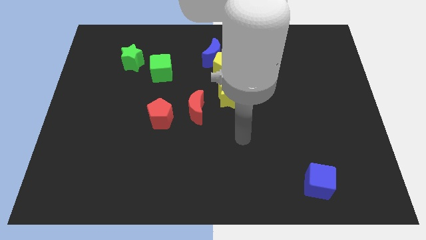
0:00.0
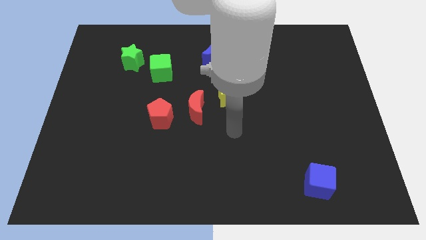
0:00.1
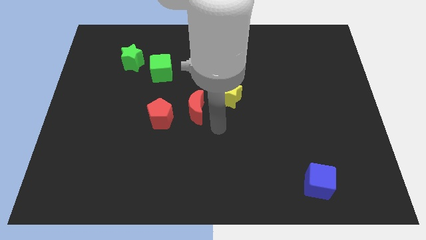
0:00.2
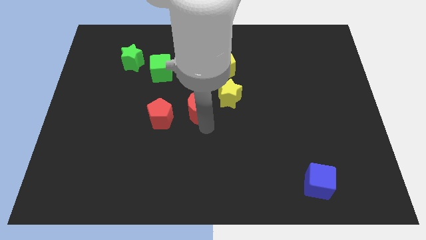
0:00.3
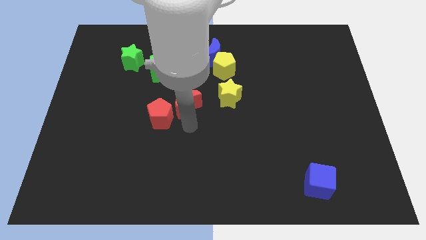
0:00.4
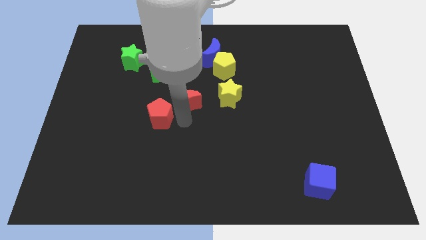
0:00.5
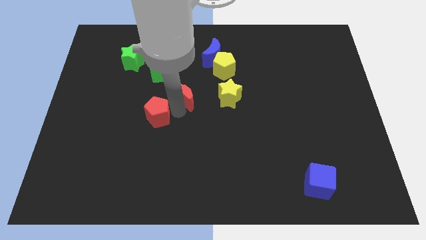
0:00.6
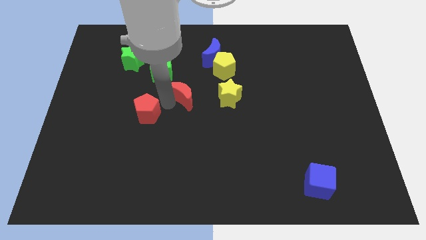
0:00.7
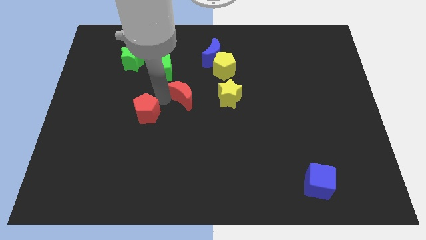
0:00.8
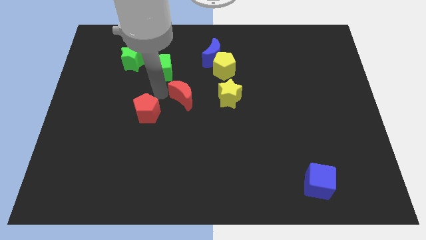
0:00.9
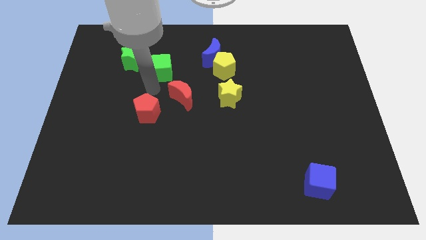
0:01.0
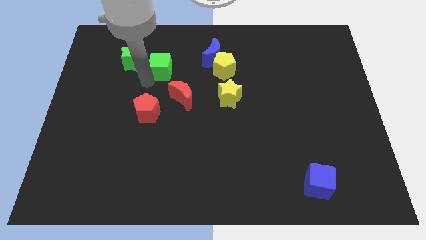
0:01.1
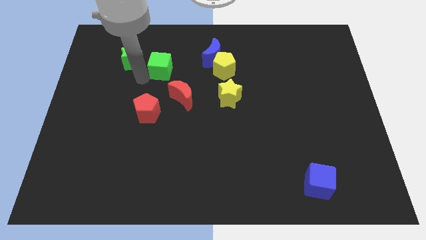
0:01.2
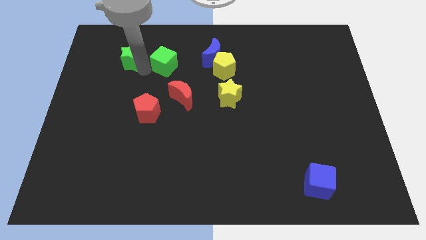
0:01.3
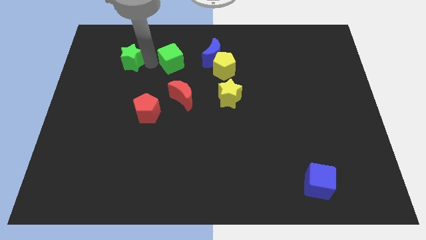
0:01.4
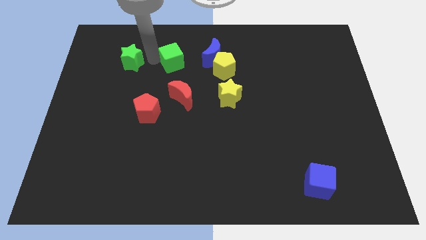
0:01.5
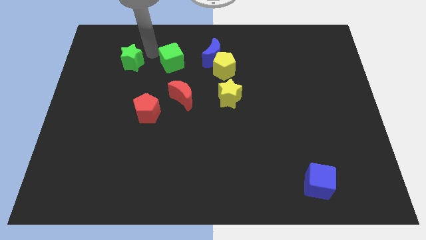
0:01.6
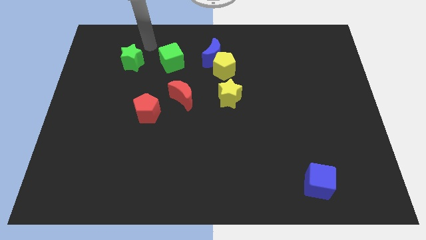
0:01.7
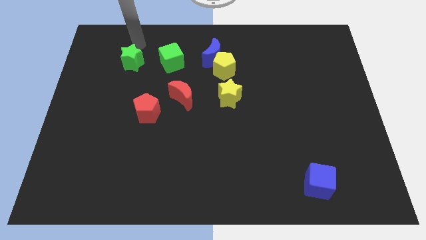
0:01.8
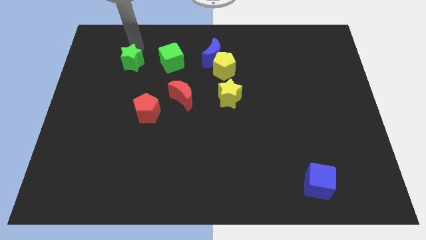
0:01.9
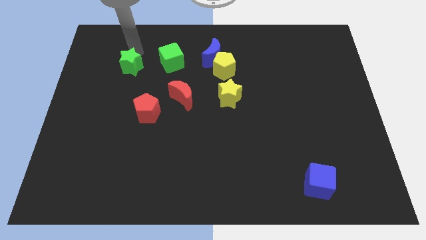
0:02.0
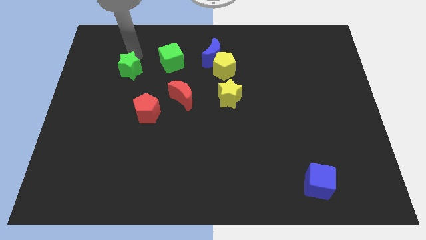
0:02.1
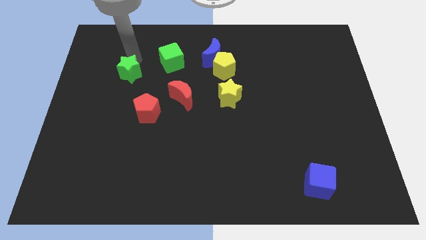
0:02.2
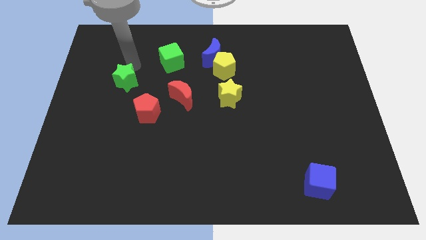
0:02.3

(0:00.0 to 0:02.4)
move the green star a little down

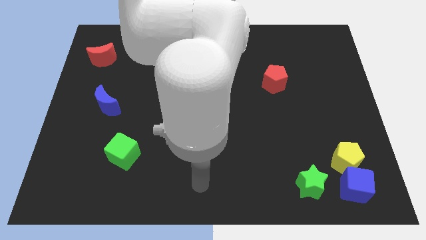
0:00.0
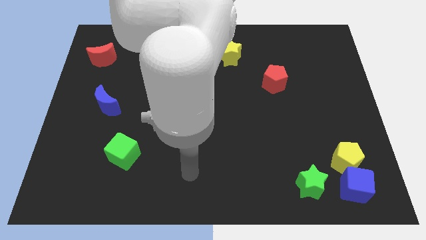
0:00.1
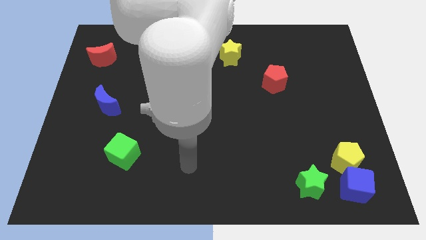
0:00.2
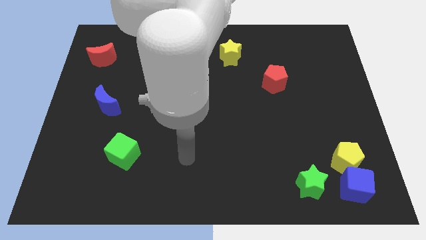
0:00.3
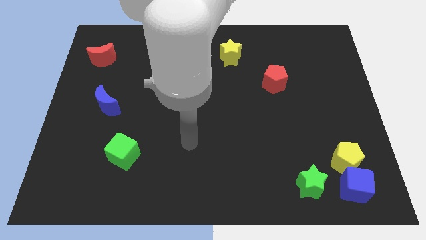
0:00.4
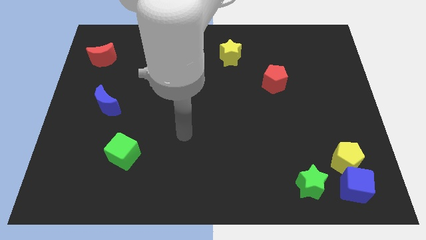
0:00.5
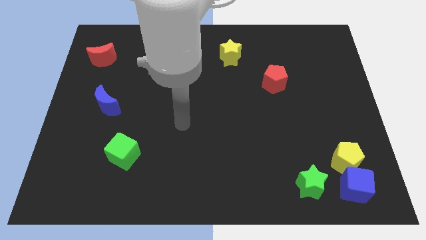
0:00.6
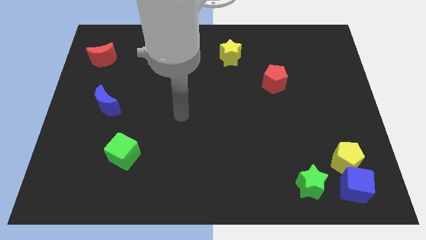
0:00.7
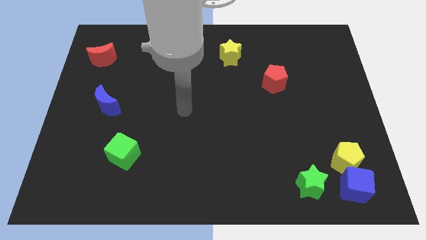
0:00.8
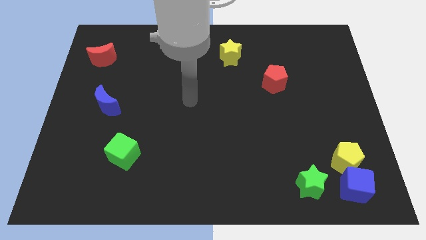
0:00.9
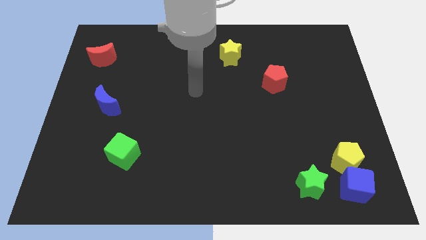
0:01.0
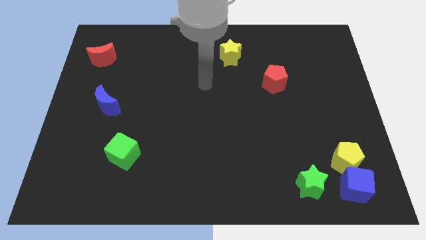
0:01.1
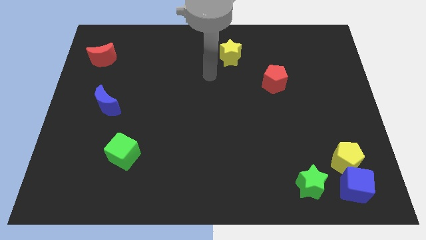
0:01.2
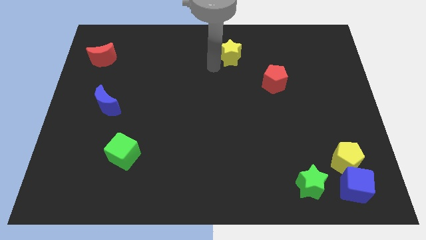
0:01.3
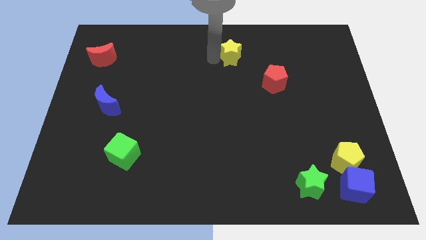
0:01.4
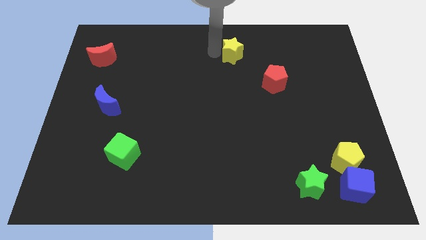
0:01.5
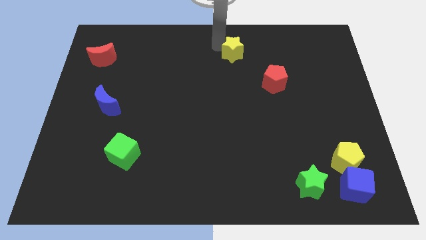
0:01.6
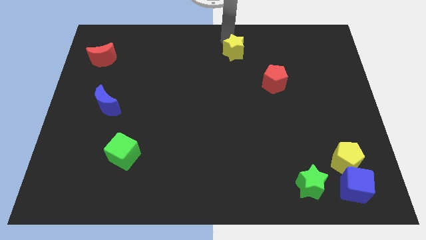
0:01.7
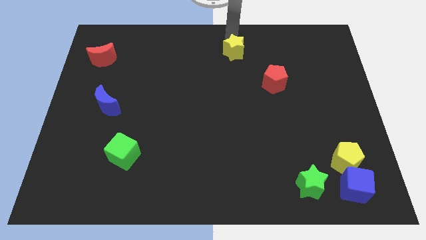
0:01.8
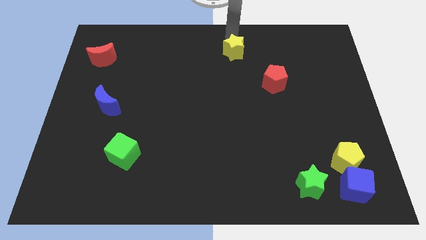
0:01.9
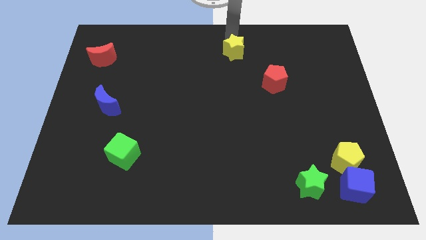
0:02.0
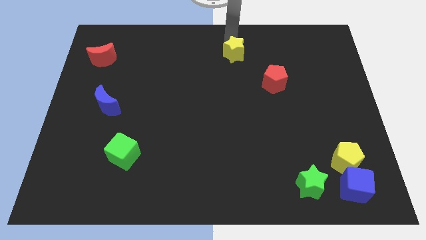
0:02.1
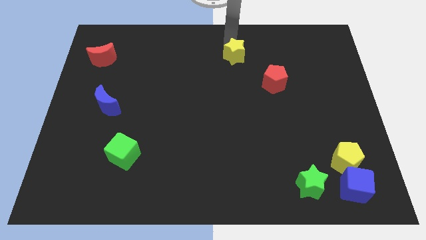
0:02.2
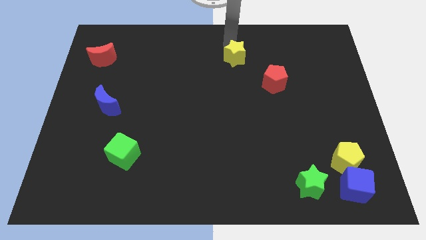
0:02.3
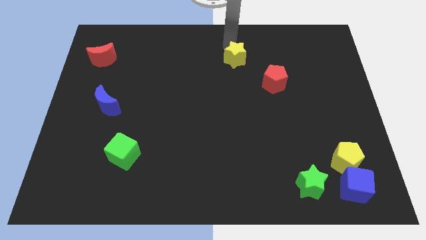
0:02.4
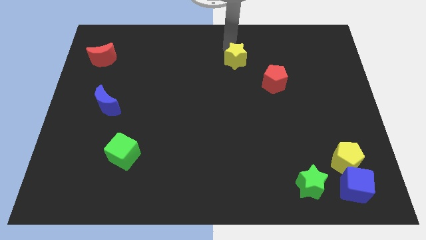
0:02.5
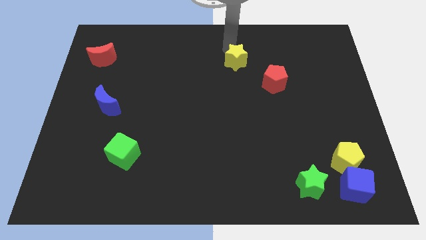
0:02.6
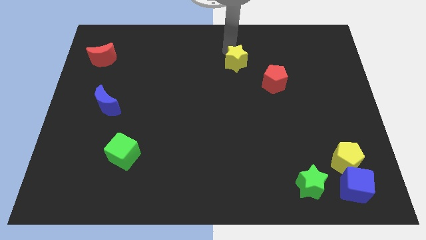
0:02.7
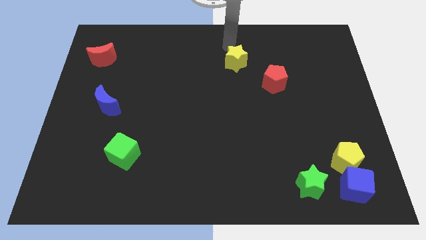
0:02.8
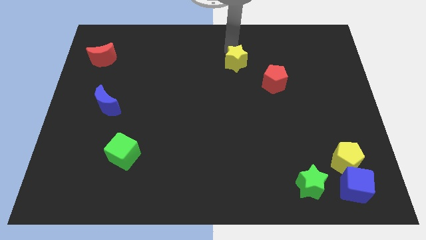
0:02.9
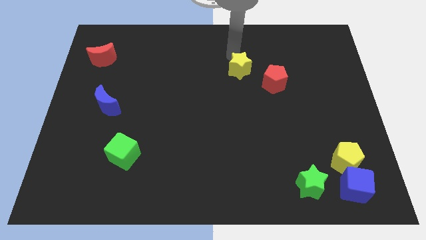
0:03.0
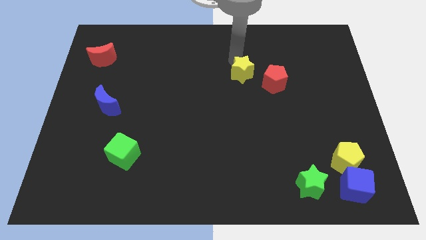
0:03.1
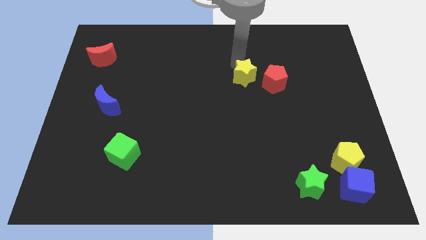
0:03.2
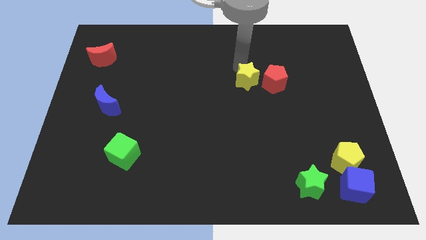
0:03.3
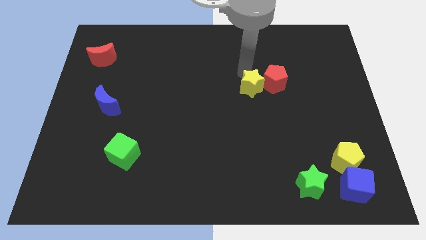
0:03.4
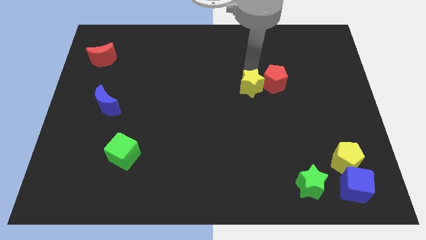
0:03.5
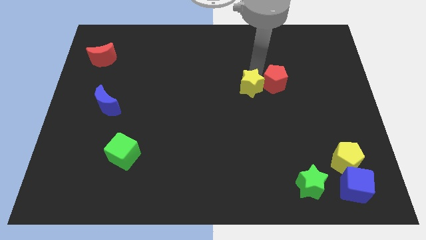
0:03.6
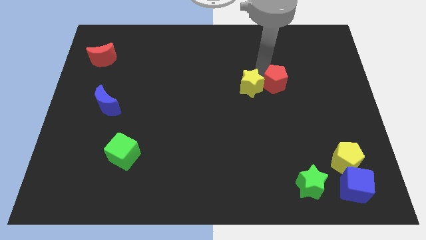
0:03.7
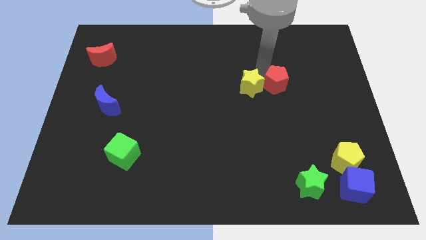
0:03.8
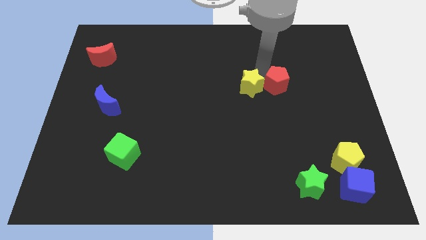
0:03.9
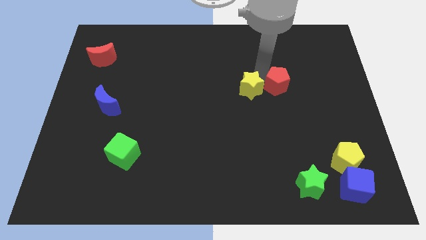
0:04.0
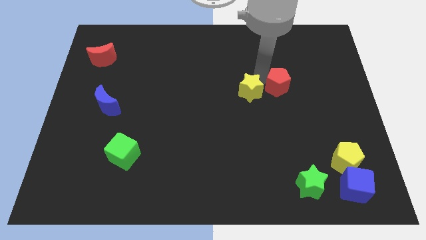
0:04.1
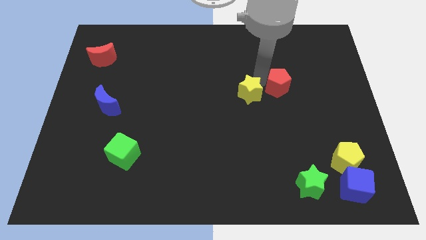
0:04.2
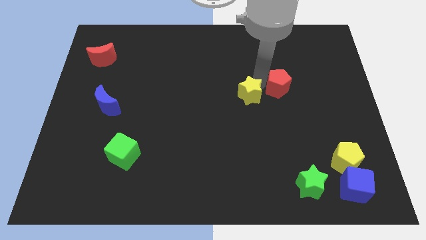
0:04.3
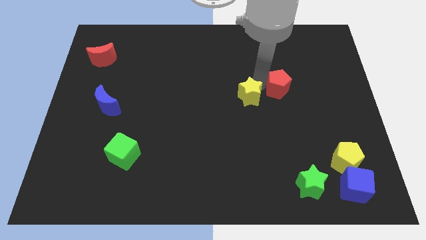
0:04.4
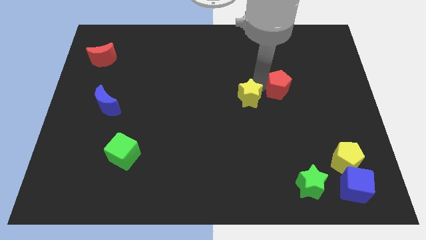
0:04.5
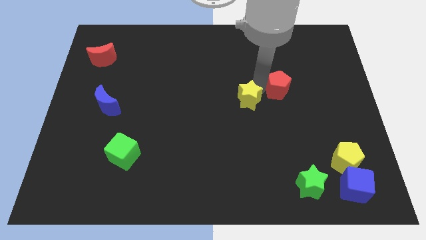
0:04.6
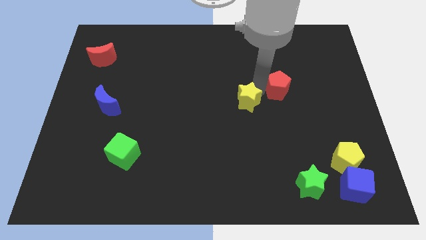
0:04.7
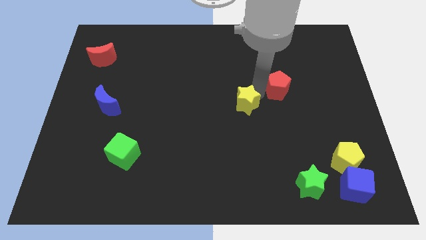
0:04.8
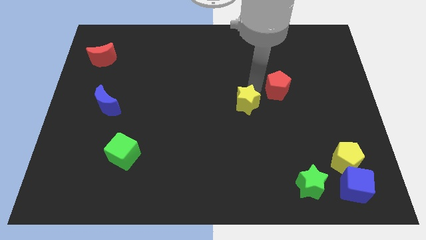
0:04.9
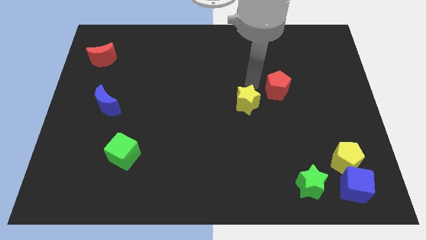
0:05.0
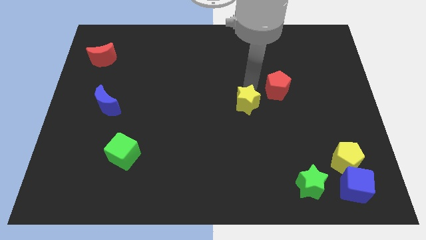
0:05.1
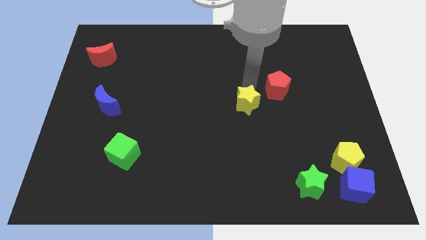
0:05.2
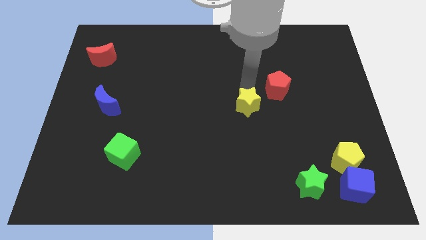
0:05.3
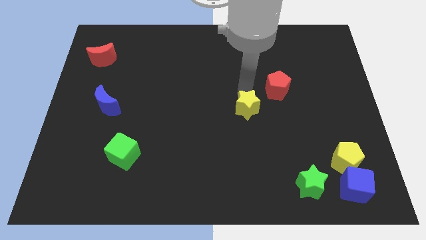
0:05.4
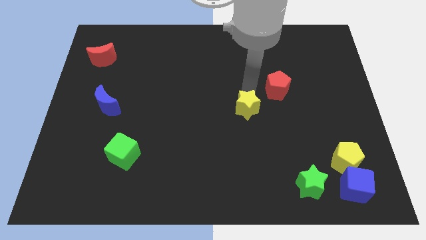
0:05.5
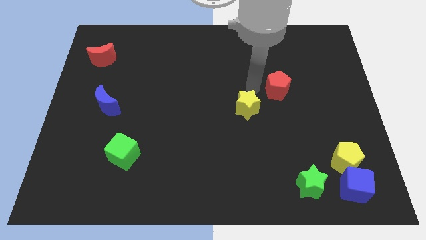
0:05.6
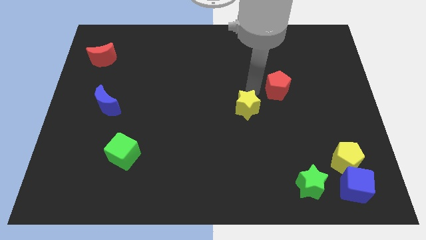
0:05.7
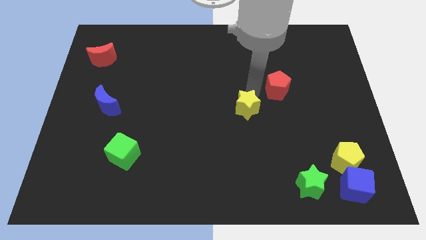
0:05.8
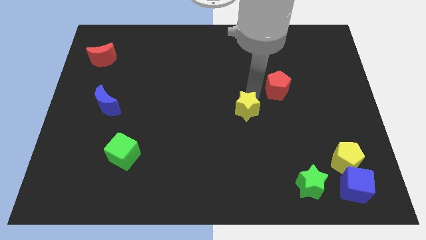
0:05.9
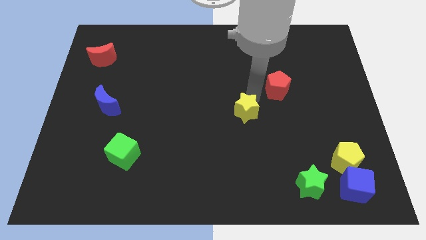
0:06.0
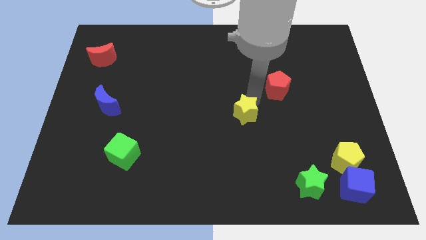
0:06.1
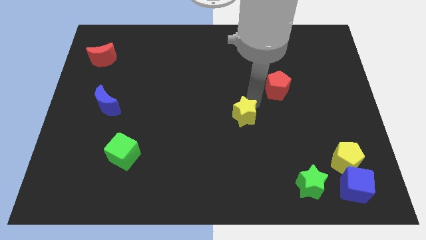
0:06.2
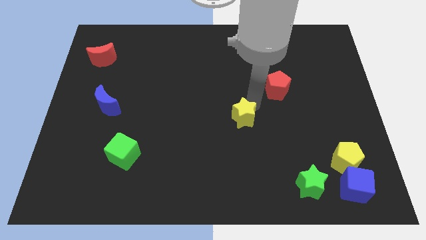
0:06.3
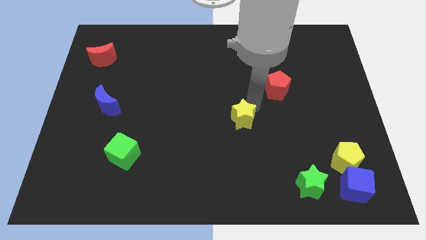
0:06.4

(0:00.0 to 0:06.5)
move the yellow star downwards
